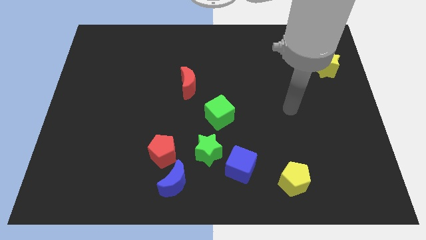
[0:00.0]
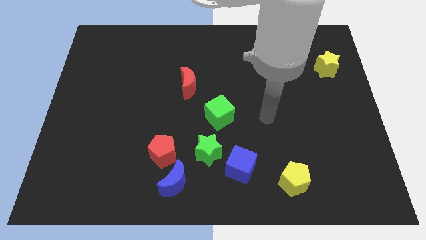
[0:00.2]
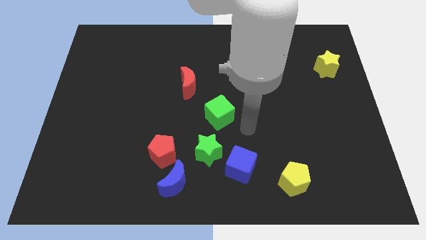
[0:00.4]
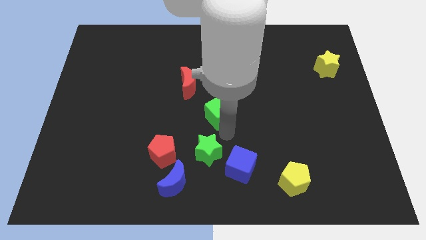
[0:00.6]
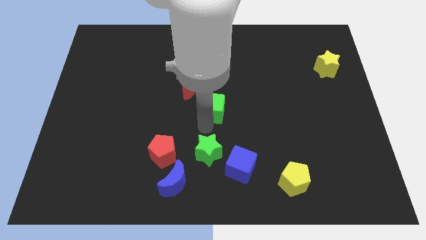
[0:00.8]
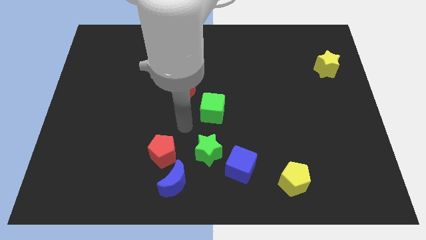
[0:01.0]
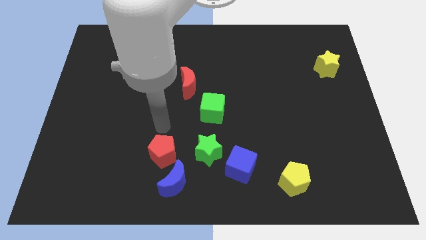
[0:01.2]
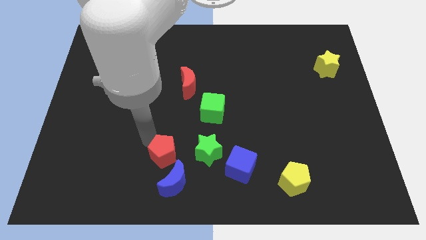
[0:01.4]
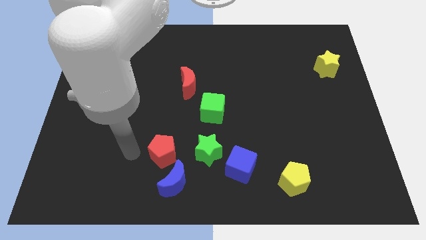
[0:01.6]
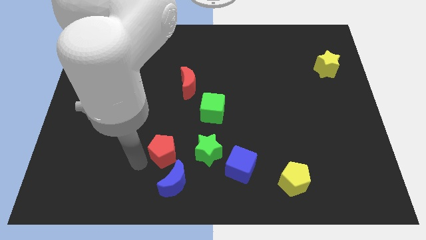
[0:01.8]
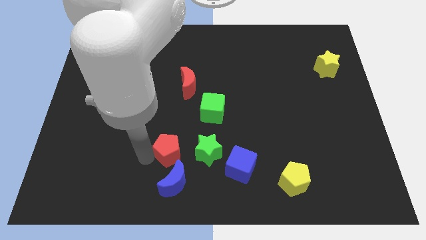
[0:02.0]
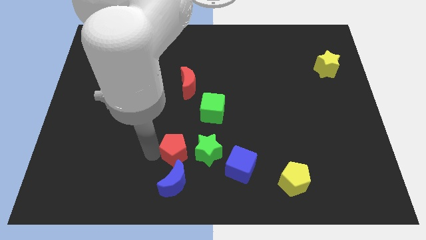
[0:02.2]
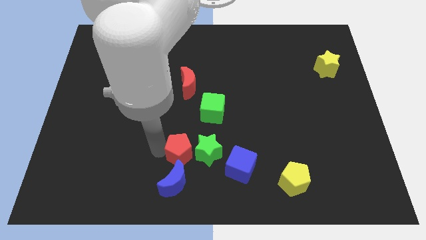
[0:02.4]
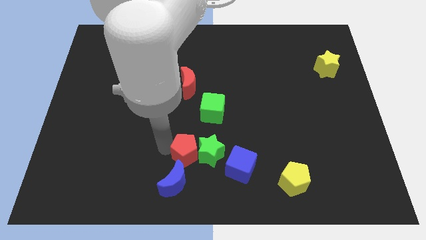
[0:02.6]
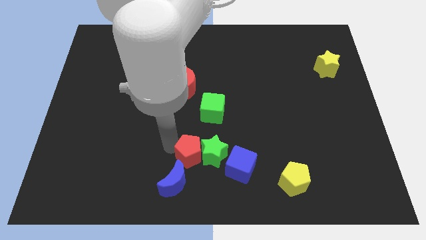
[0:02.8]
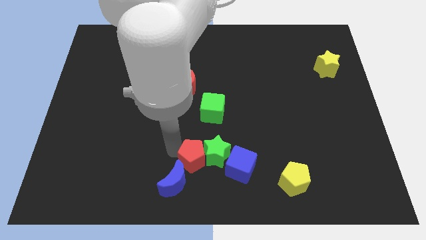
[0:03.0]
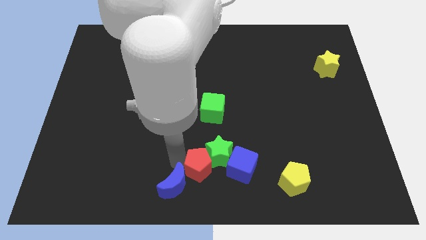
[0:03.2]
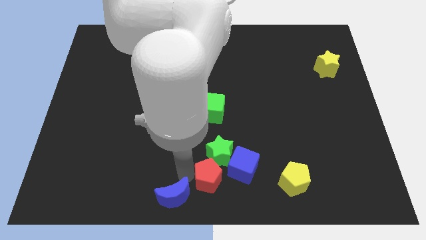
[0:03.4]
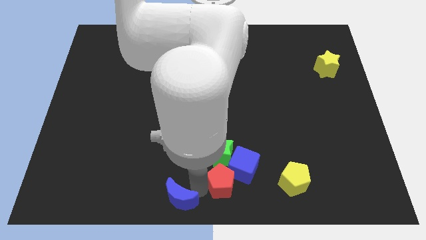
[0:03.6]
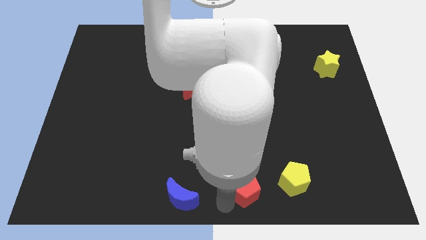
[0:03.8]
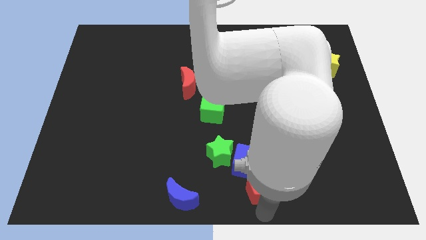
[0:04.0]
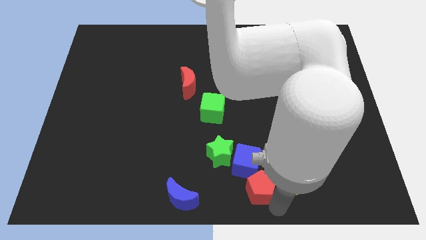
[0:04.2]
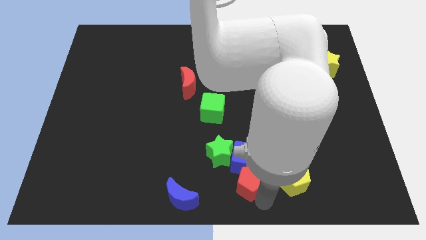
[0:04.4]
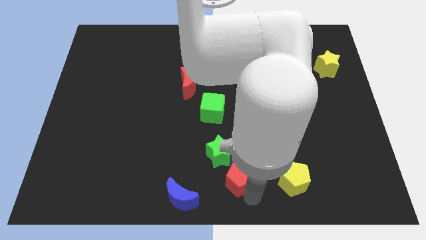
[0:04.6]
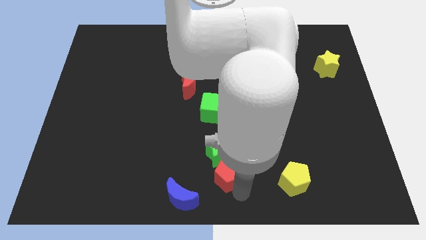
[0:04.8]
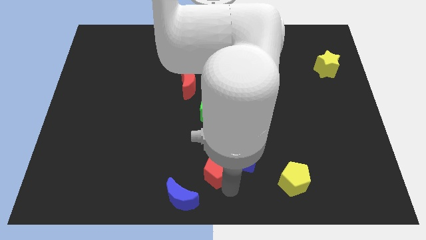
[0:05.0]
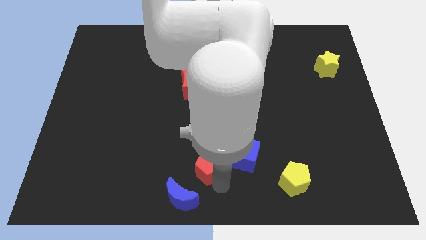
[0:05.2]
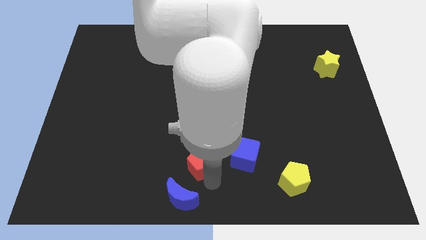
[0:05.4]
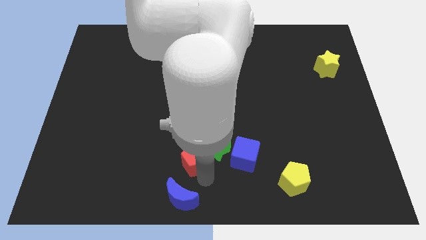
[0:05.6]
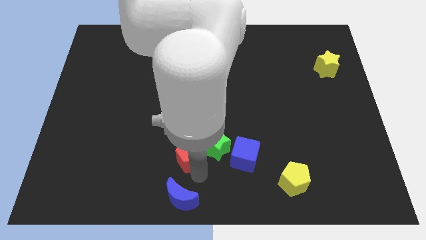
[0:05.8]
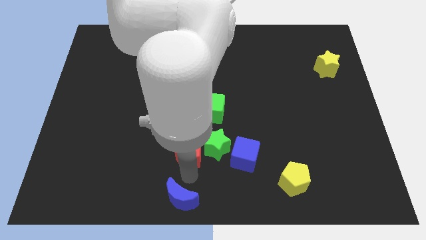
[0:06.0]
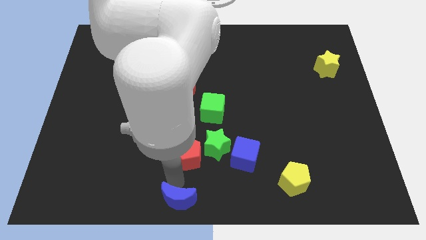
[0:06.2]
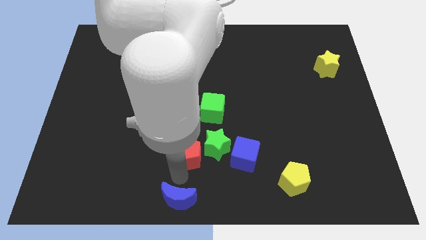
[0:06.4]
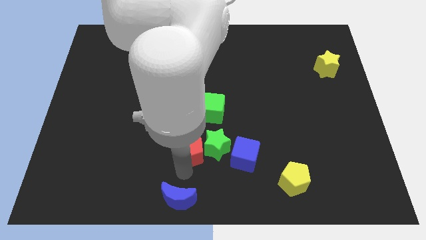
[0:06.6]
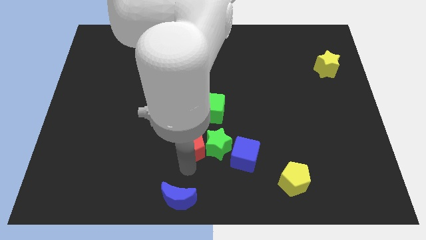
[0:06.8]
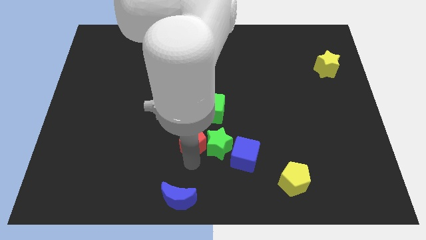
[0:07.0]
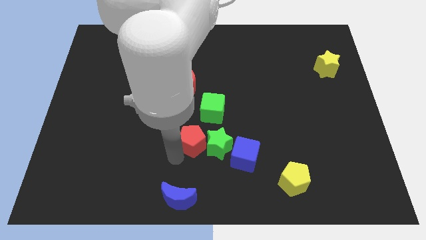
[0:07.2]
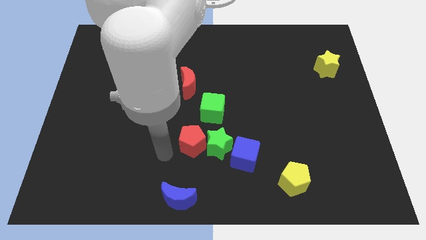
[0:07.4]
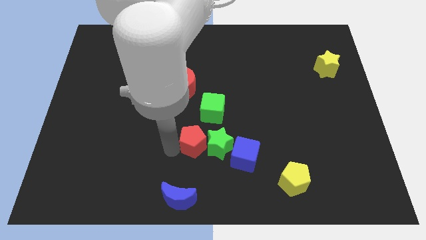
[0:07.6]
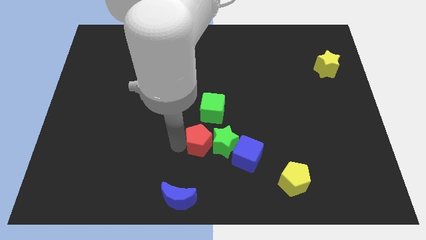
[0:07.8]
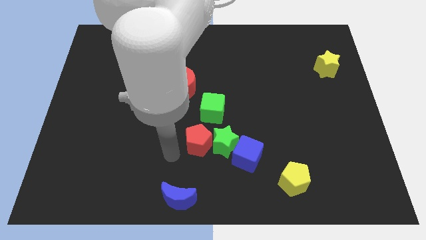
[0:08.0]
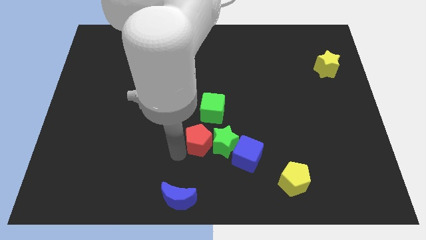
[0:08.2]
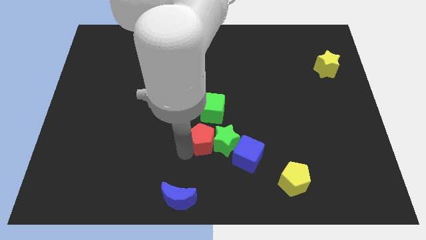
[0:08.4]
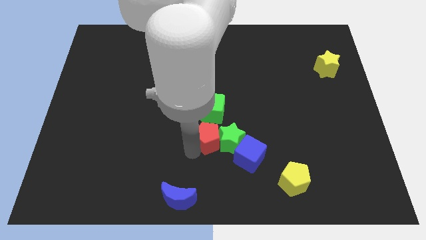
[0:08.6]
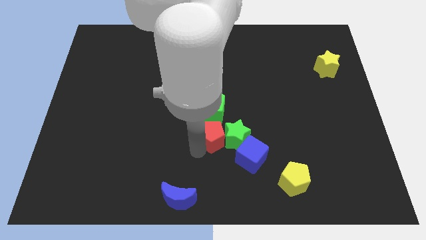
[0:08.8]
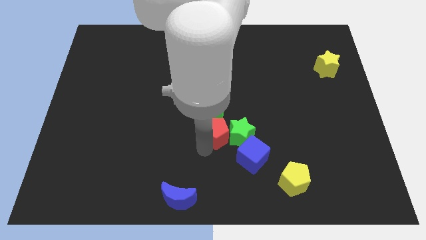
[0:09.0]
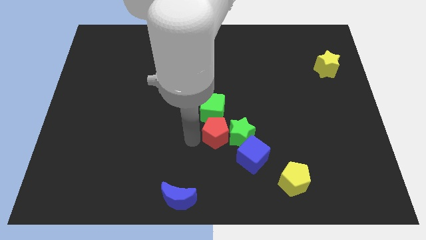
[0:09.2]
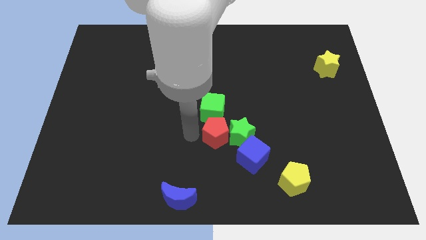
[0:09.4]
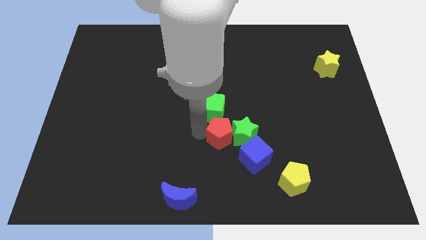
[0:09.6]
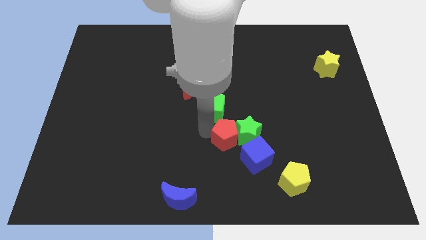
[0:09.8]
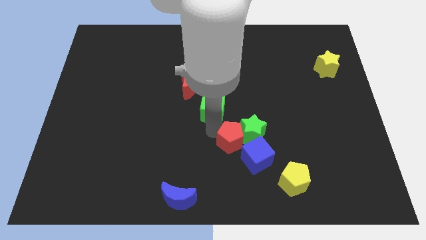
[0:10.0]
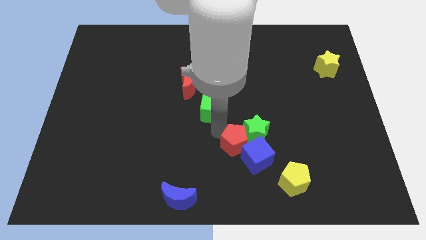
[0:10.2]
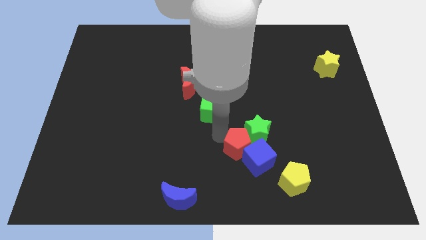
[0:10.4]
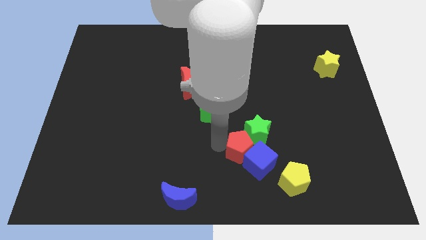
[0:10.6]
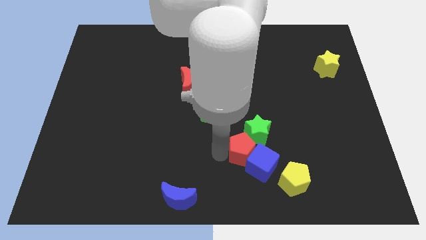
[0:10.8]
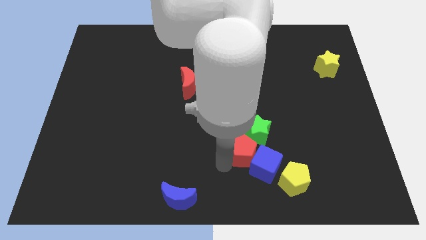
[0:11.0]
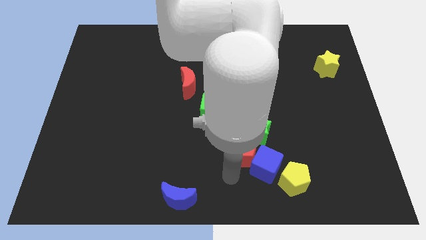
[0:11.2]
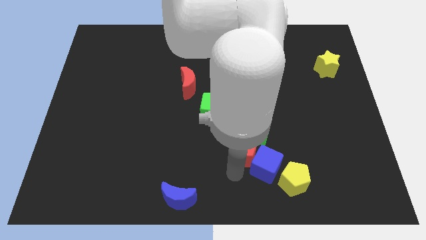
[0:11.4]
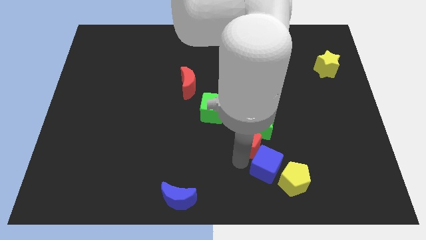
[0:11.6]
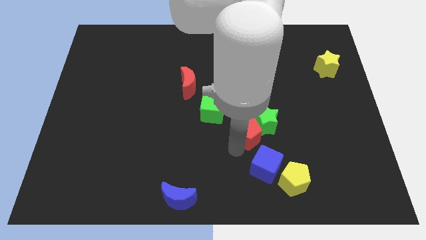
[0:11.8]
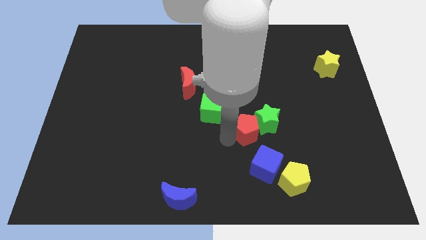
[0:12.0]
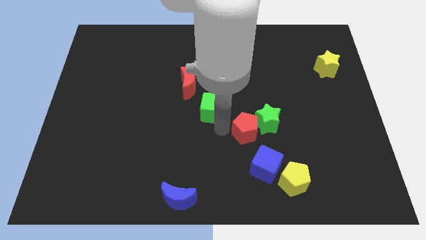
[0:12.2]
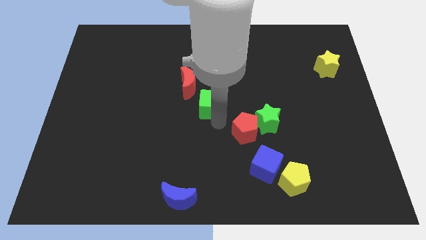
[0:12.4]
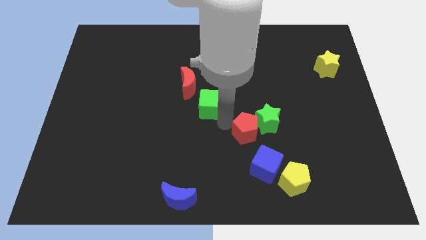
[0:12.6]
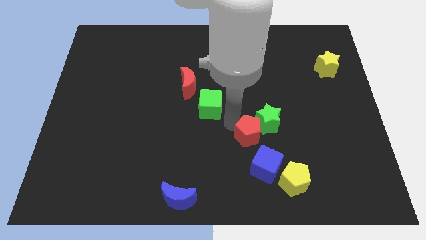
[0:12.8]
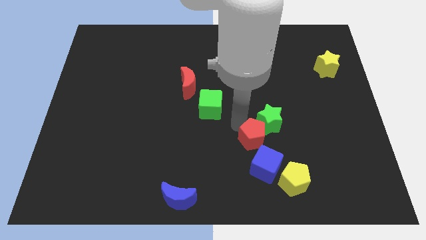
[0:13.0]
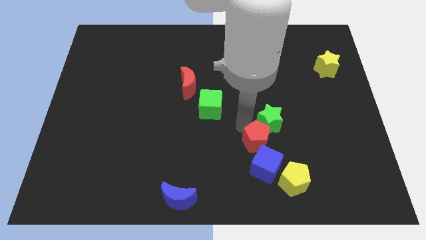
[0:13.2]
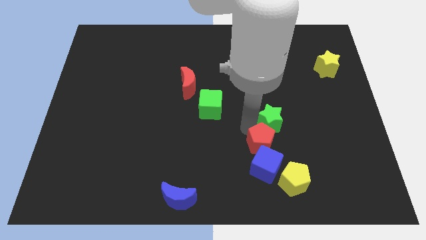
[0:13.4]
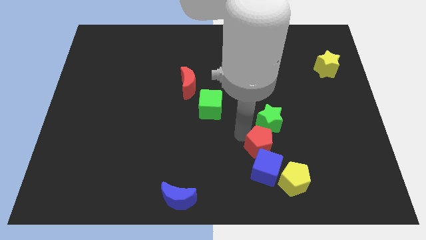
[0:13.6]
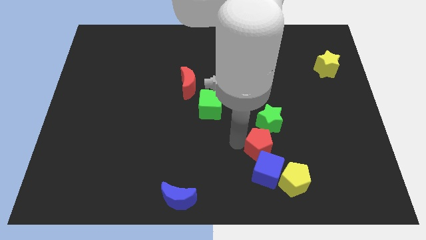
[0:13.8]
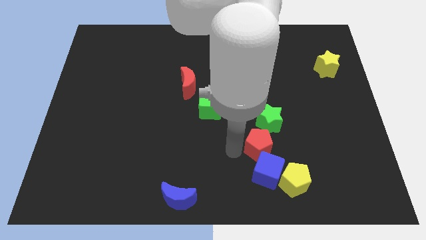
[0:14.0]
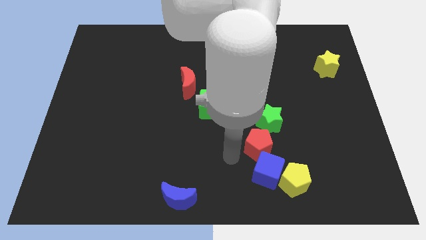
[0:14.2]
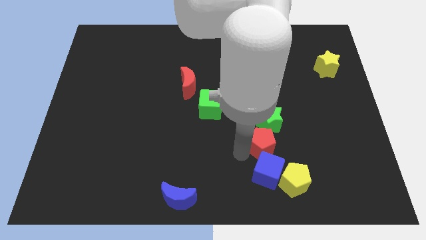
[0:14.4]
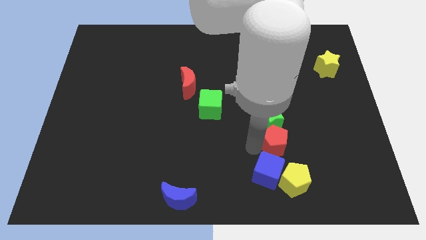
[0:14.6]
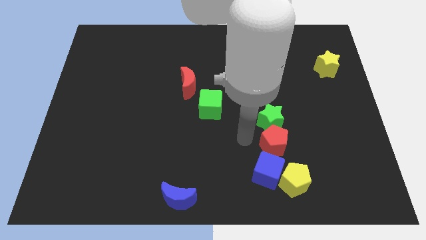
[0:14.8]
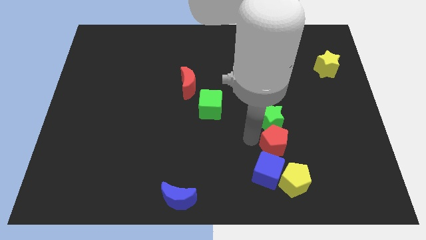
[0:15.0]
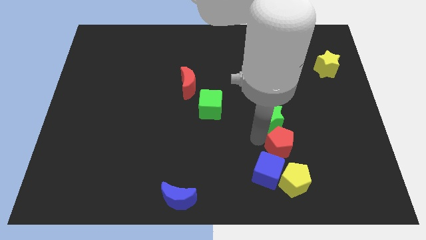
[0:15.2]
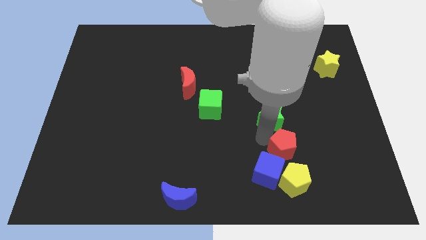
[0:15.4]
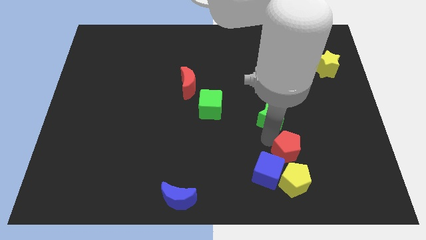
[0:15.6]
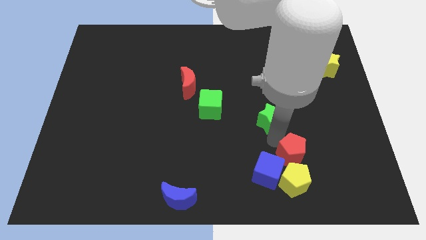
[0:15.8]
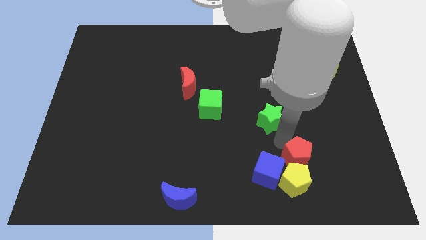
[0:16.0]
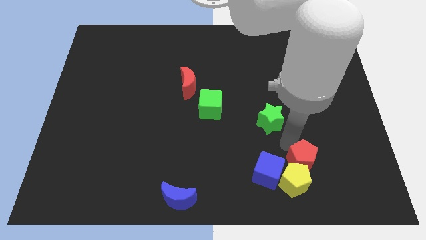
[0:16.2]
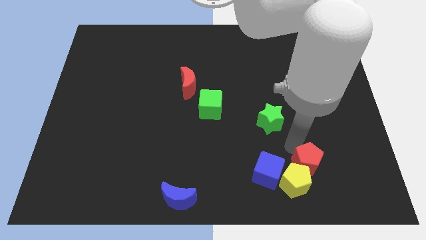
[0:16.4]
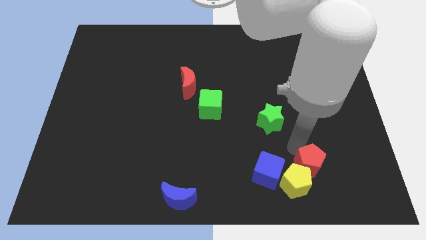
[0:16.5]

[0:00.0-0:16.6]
put the red pentagon just right of the yellow pentagon
